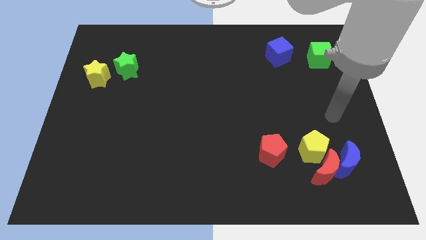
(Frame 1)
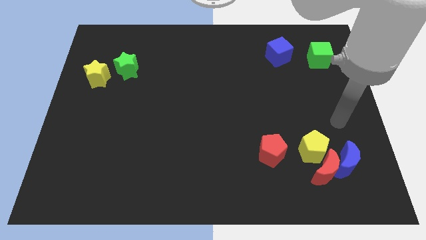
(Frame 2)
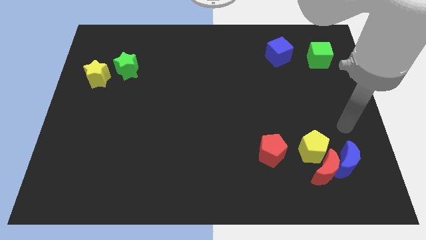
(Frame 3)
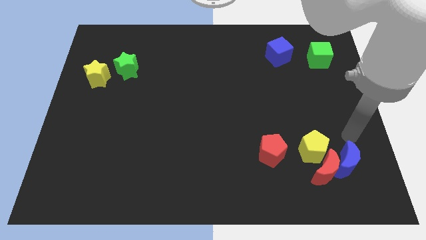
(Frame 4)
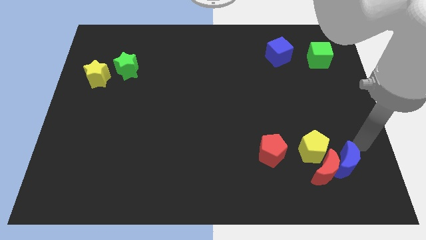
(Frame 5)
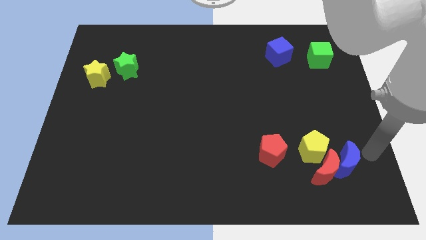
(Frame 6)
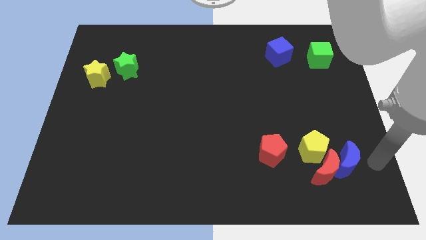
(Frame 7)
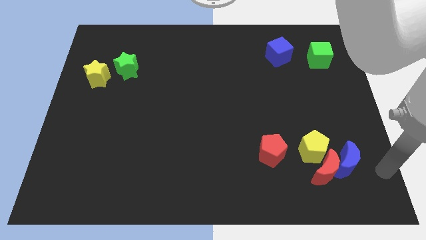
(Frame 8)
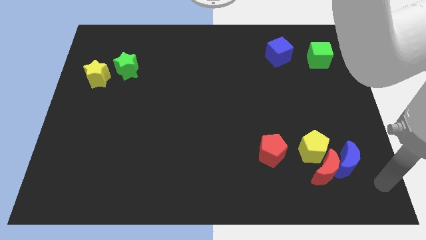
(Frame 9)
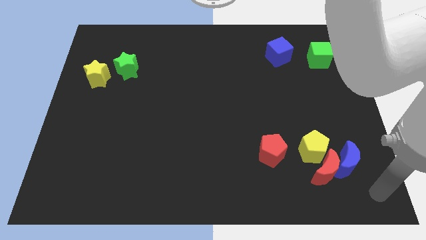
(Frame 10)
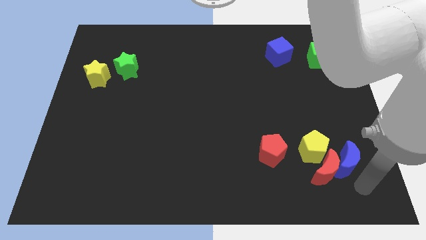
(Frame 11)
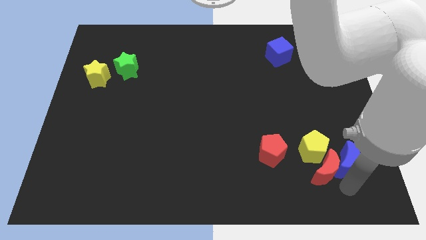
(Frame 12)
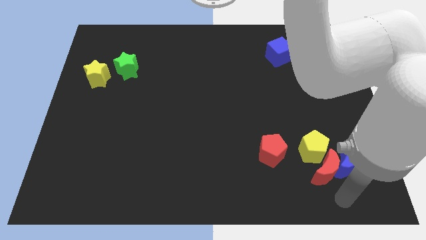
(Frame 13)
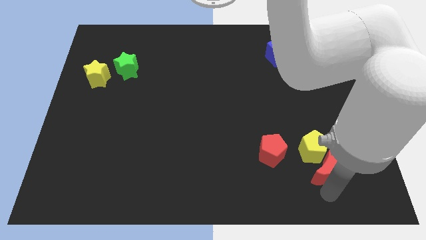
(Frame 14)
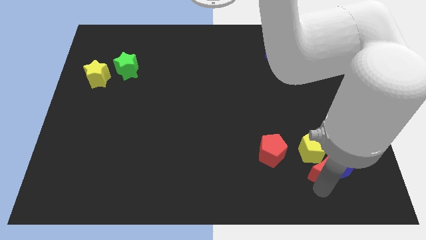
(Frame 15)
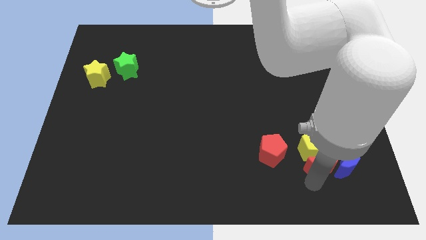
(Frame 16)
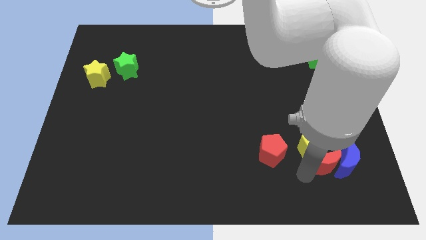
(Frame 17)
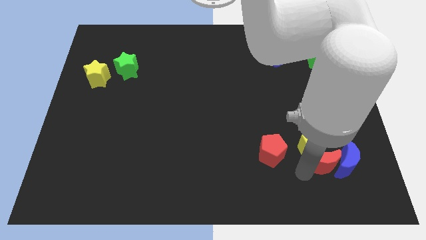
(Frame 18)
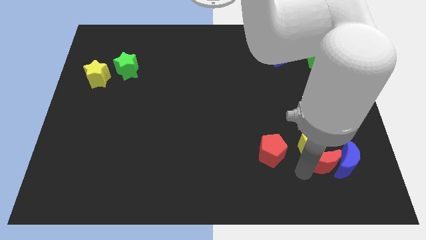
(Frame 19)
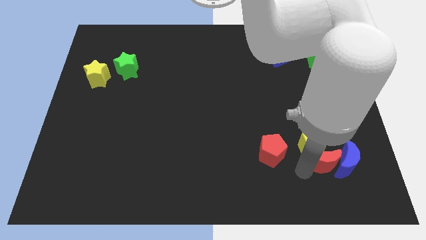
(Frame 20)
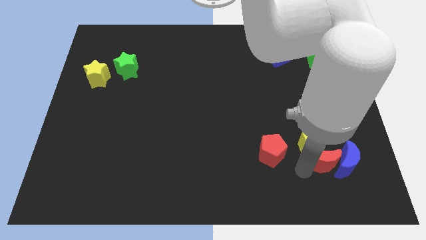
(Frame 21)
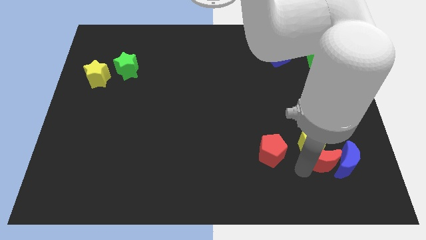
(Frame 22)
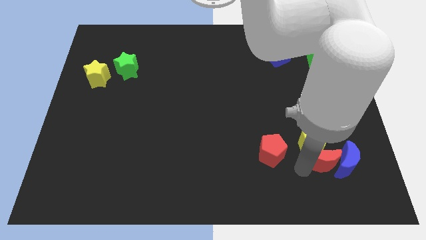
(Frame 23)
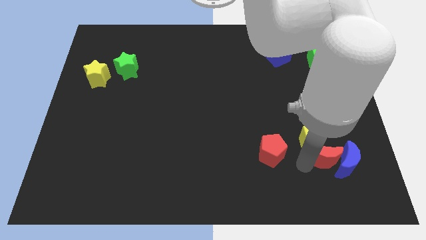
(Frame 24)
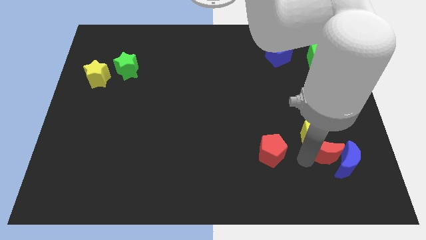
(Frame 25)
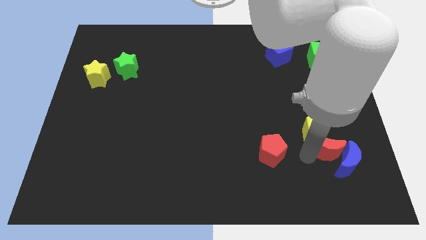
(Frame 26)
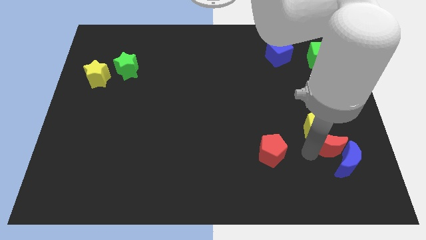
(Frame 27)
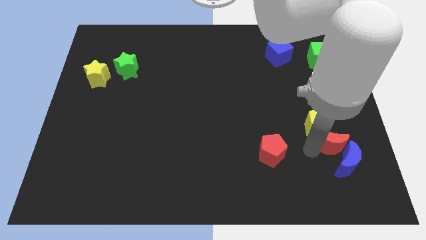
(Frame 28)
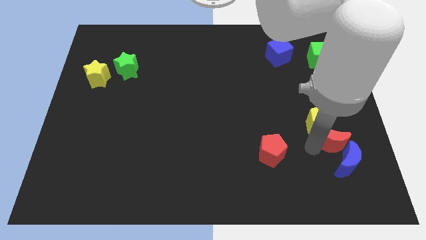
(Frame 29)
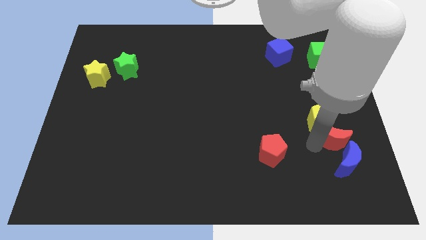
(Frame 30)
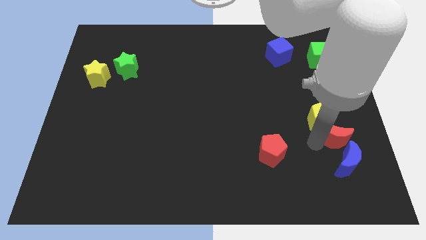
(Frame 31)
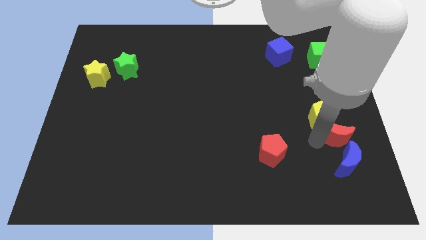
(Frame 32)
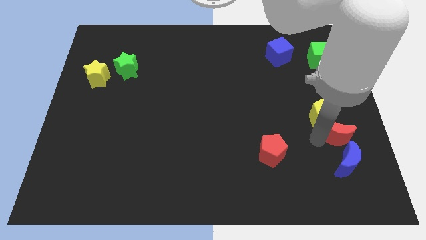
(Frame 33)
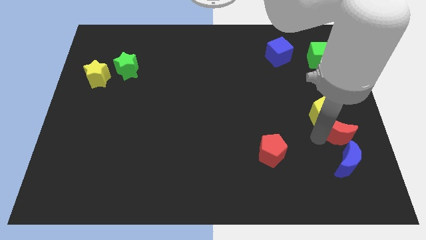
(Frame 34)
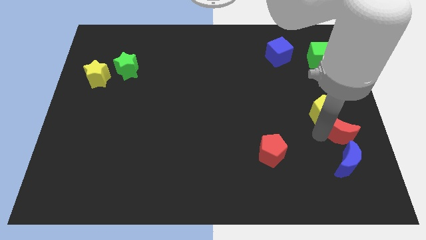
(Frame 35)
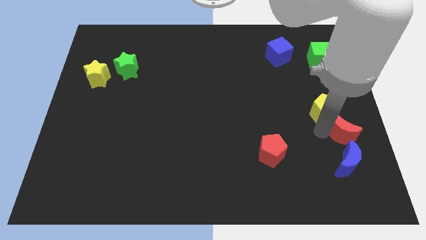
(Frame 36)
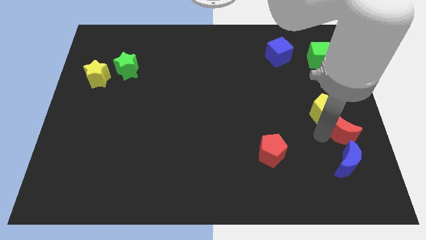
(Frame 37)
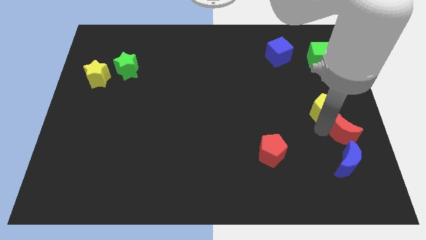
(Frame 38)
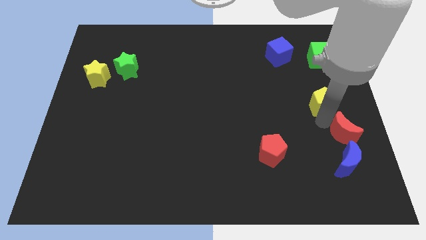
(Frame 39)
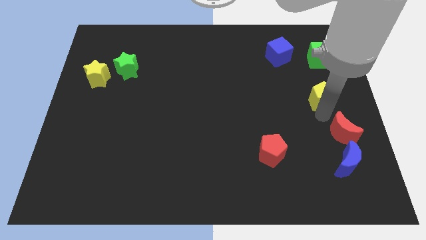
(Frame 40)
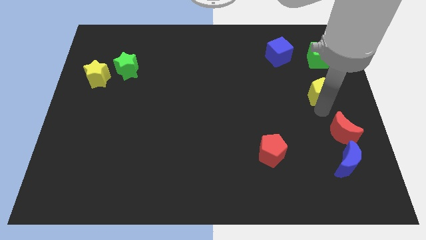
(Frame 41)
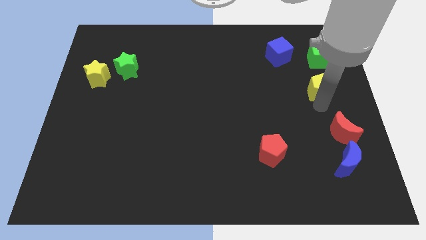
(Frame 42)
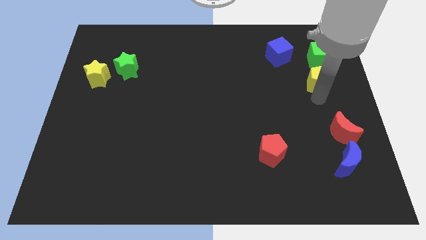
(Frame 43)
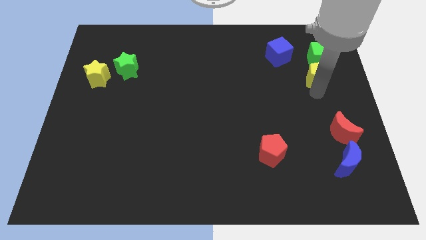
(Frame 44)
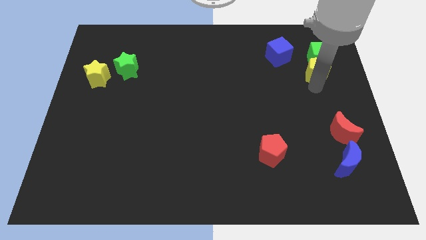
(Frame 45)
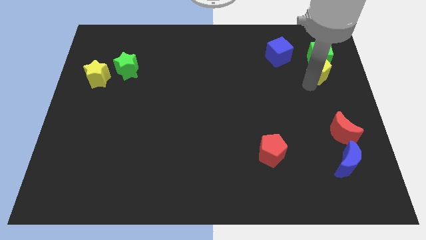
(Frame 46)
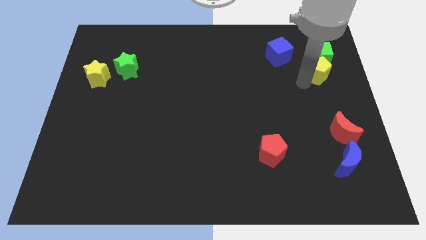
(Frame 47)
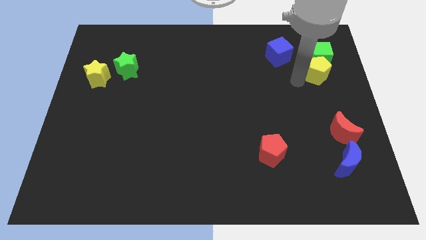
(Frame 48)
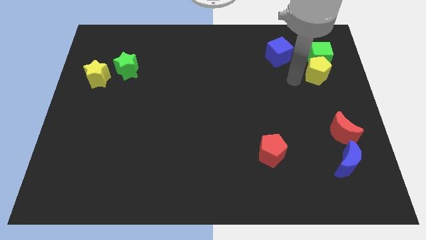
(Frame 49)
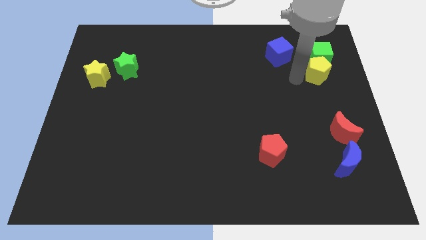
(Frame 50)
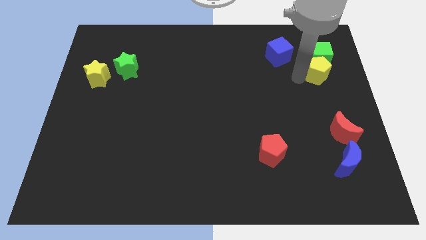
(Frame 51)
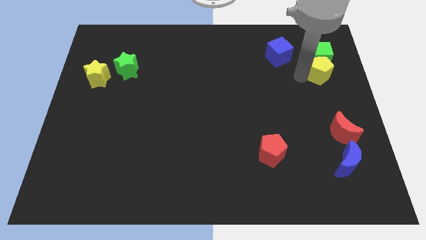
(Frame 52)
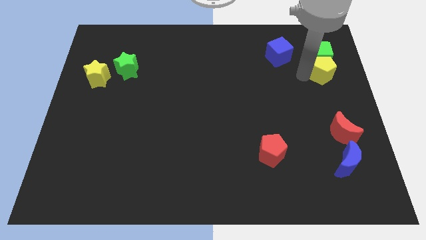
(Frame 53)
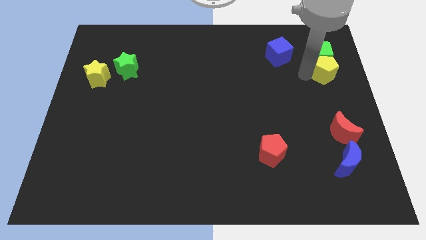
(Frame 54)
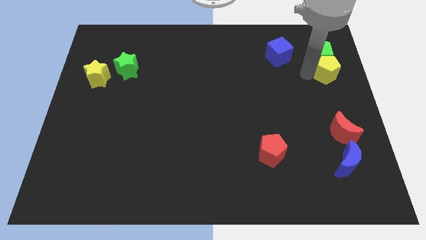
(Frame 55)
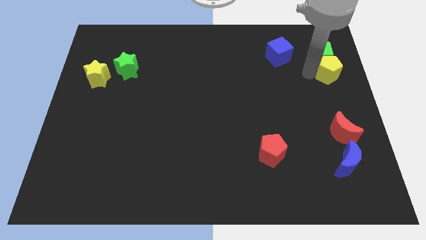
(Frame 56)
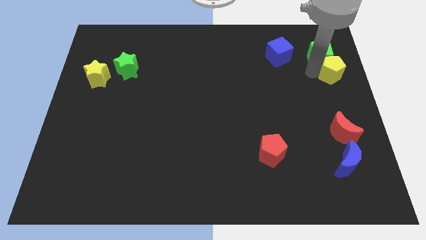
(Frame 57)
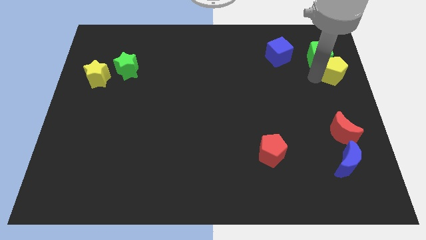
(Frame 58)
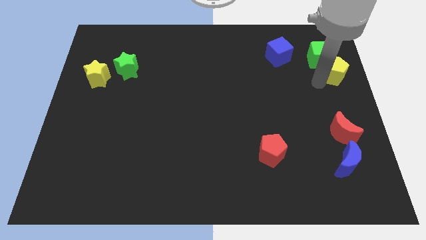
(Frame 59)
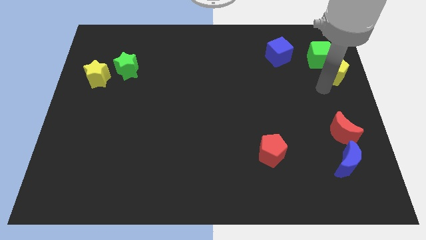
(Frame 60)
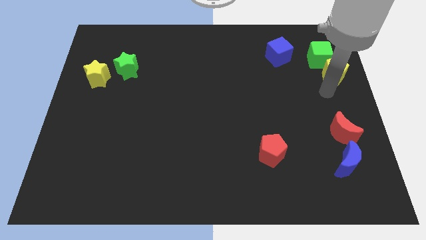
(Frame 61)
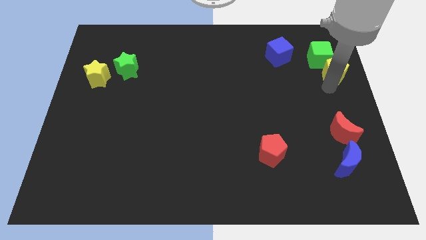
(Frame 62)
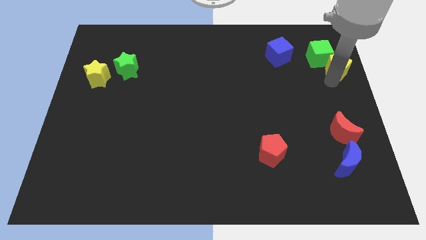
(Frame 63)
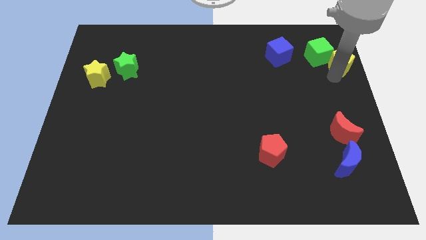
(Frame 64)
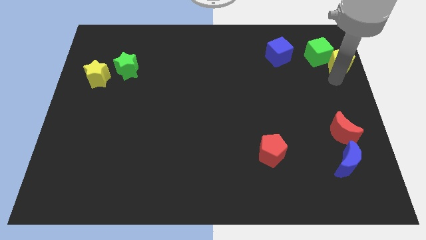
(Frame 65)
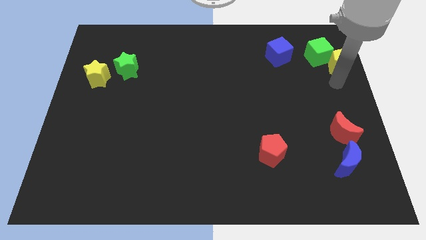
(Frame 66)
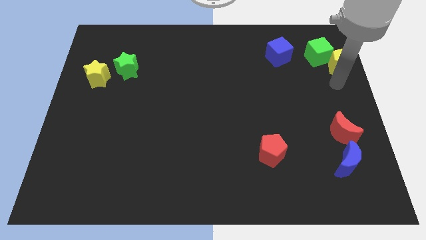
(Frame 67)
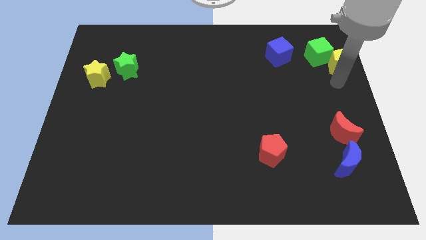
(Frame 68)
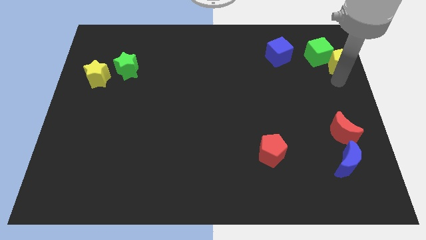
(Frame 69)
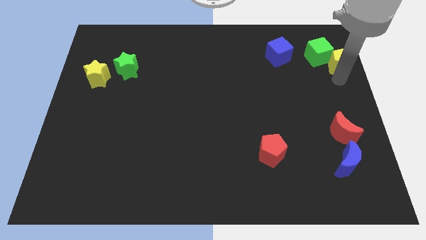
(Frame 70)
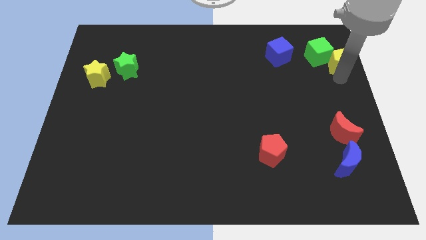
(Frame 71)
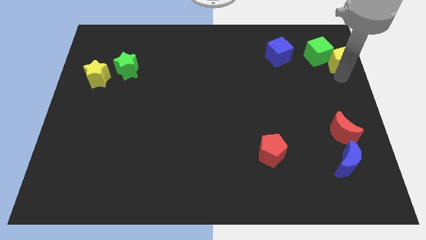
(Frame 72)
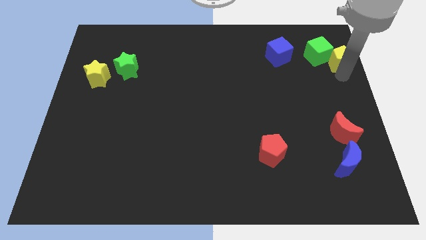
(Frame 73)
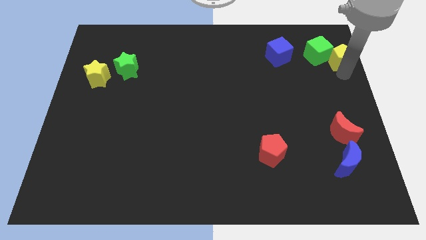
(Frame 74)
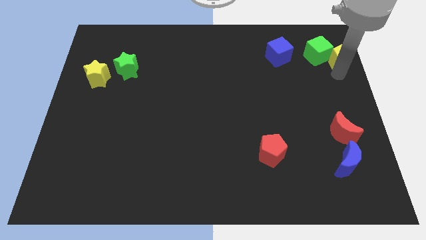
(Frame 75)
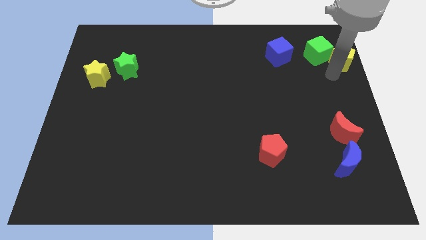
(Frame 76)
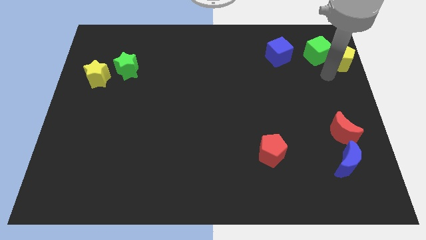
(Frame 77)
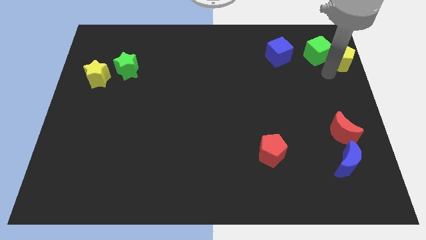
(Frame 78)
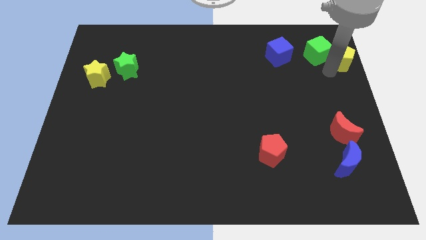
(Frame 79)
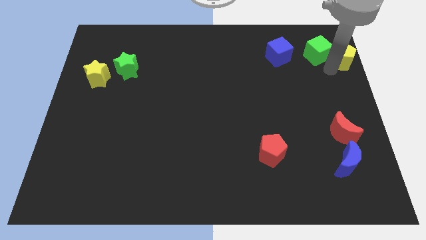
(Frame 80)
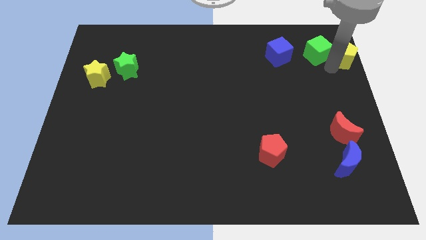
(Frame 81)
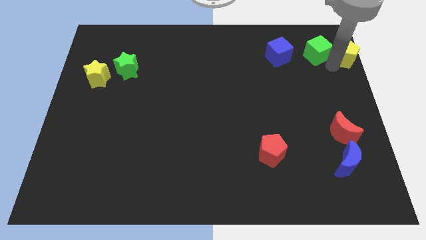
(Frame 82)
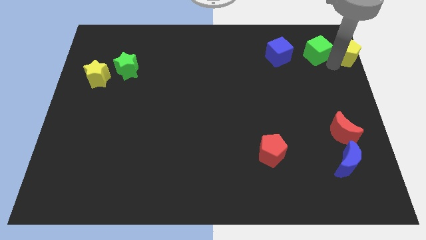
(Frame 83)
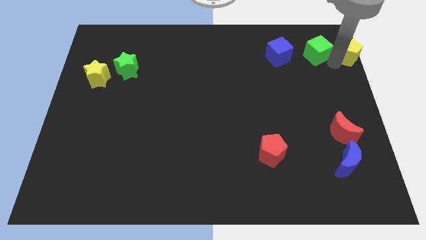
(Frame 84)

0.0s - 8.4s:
slide the yellow pentagon to the top right of the board
